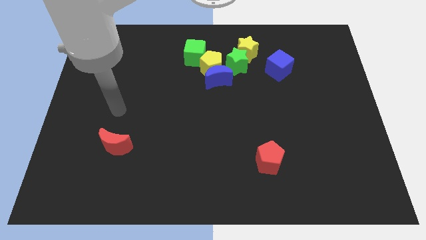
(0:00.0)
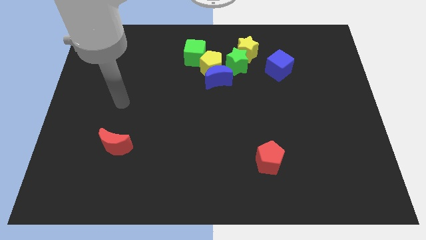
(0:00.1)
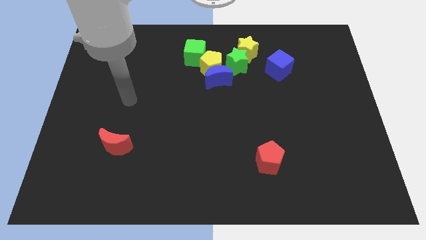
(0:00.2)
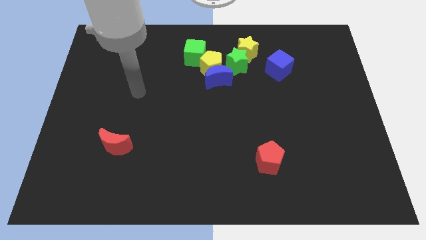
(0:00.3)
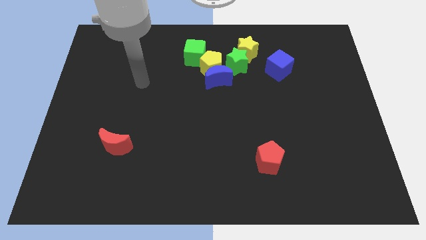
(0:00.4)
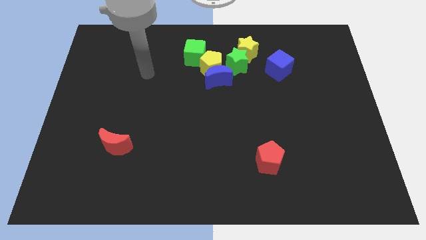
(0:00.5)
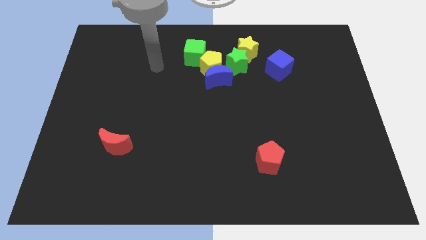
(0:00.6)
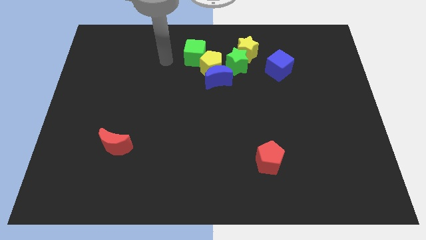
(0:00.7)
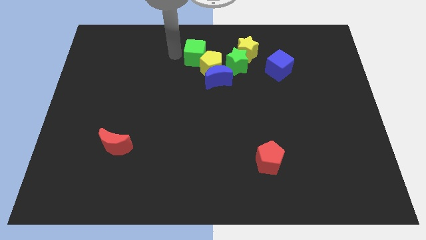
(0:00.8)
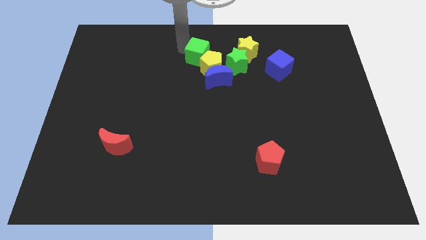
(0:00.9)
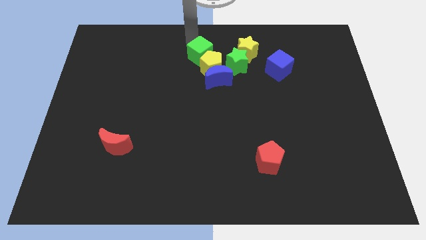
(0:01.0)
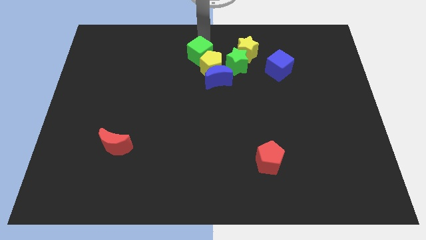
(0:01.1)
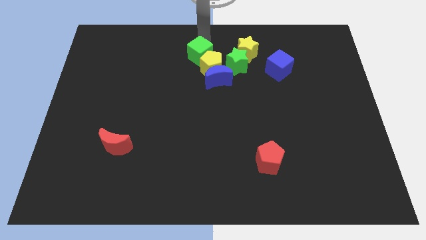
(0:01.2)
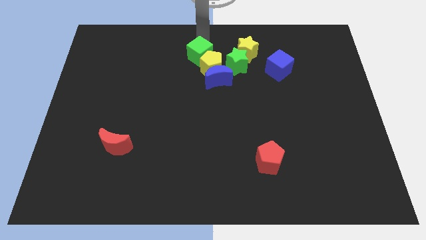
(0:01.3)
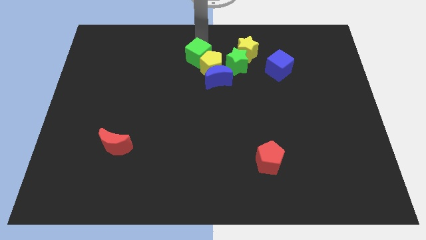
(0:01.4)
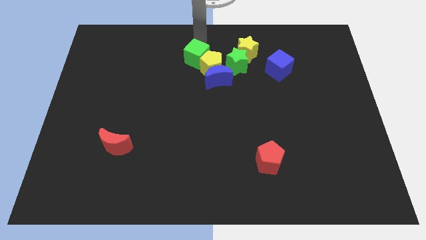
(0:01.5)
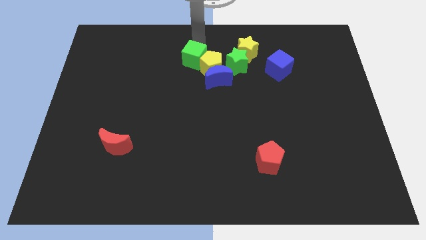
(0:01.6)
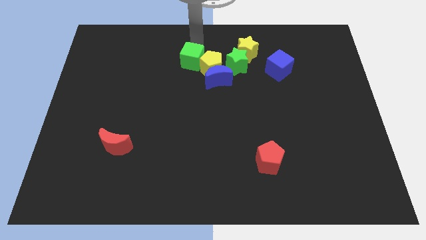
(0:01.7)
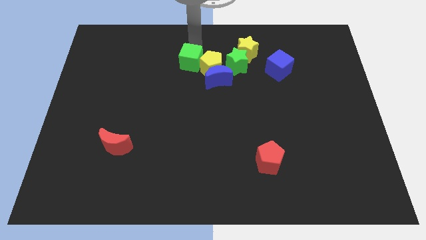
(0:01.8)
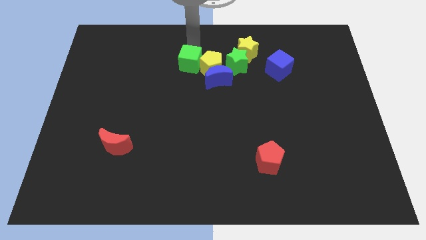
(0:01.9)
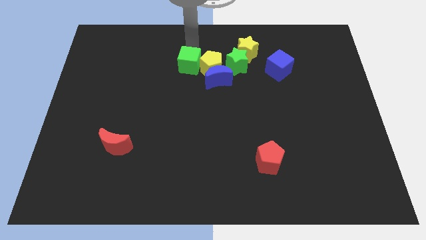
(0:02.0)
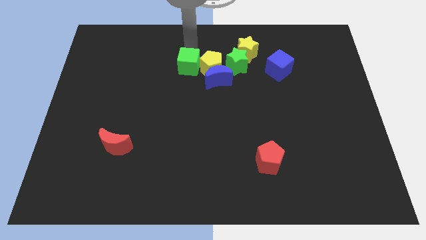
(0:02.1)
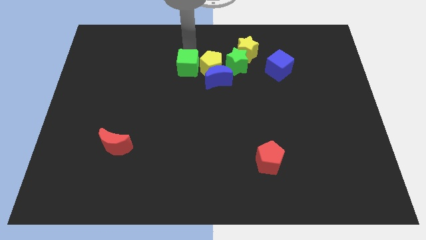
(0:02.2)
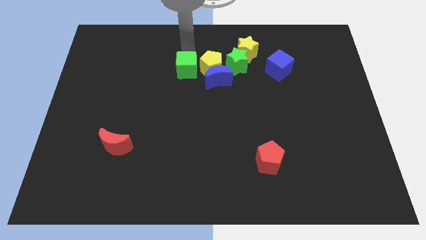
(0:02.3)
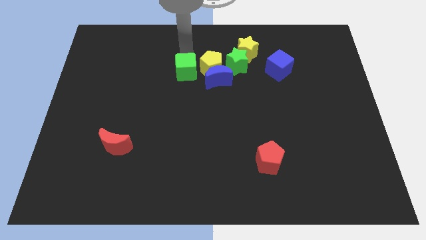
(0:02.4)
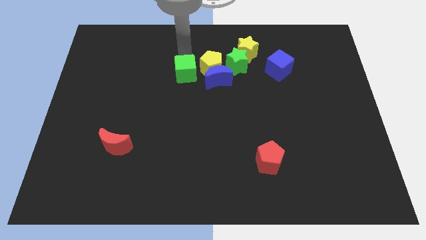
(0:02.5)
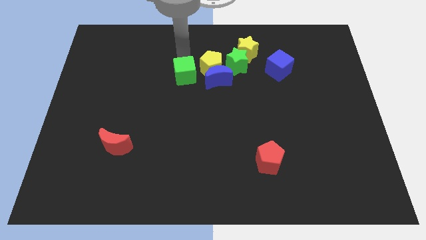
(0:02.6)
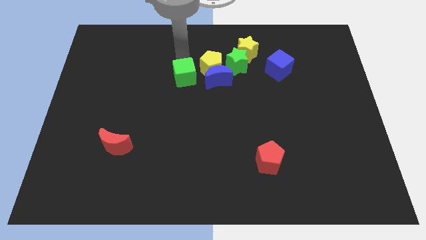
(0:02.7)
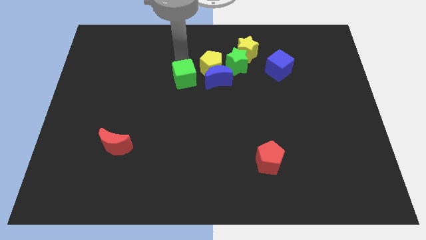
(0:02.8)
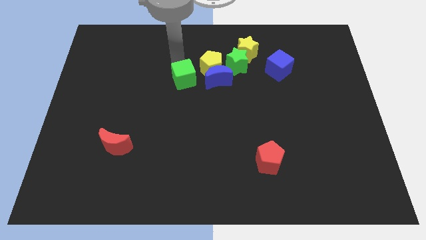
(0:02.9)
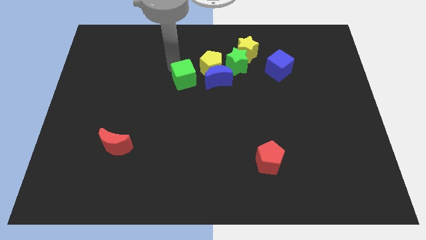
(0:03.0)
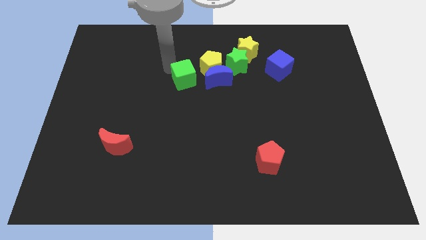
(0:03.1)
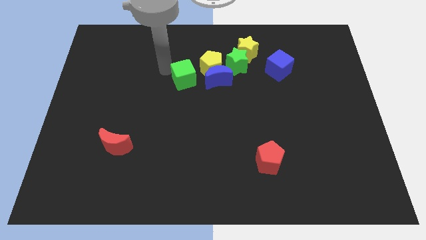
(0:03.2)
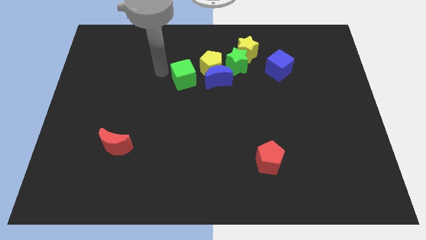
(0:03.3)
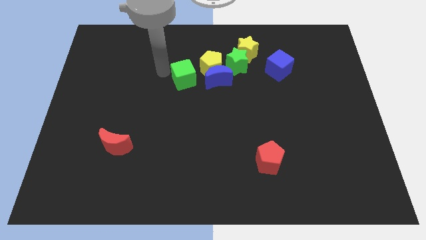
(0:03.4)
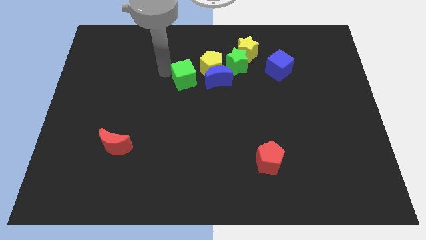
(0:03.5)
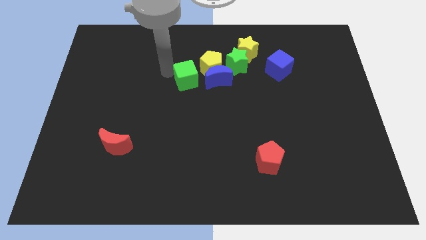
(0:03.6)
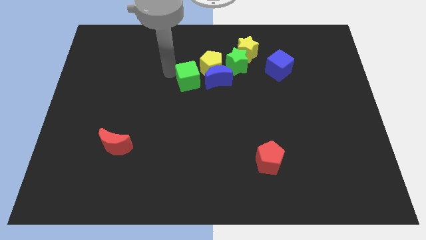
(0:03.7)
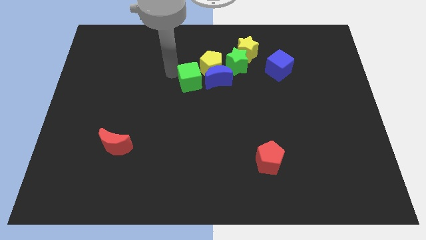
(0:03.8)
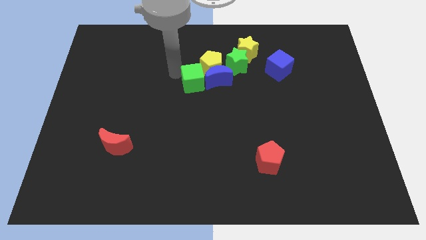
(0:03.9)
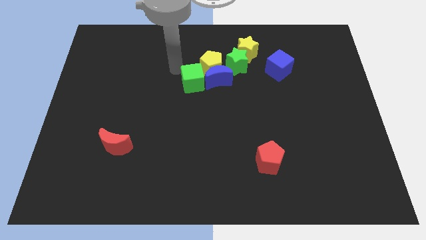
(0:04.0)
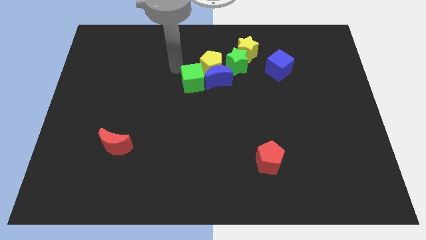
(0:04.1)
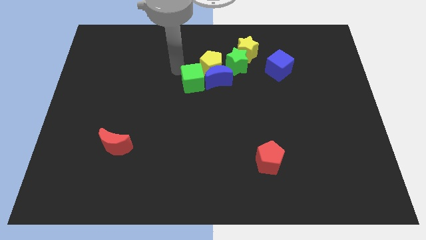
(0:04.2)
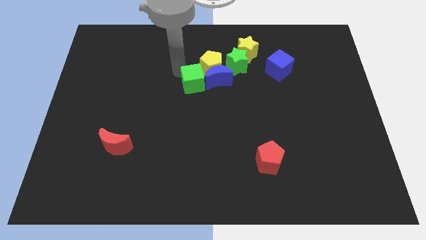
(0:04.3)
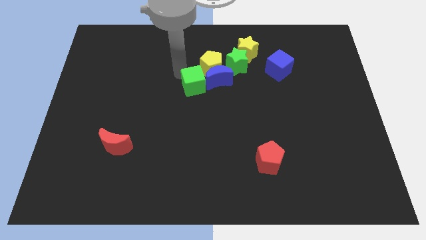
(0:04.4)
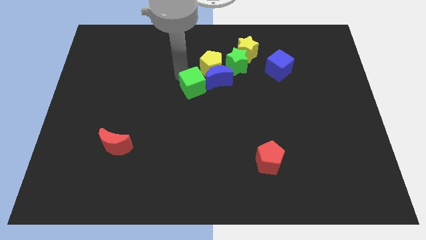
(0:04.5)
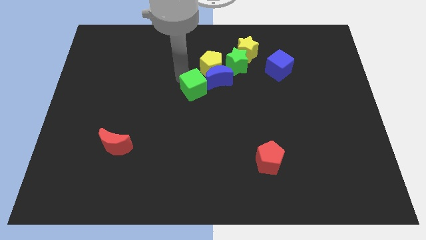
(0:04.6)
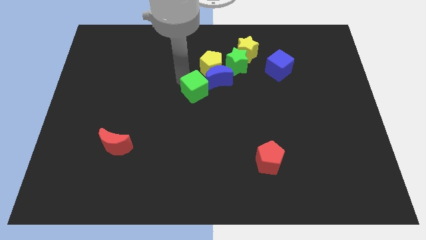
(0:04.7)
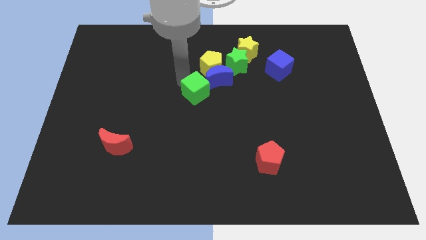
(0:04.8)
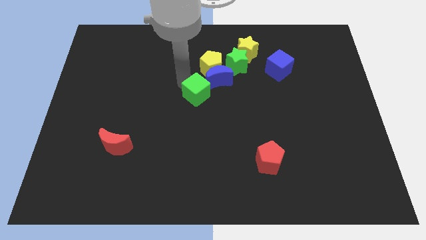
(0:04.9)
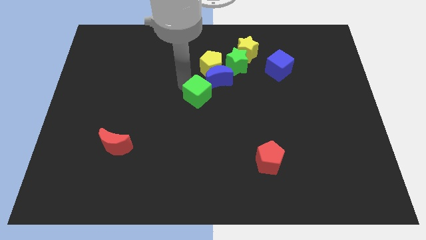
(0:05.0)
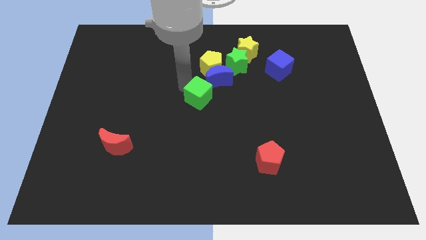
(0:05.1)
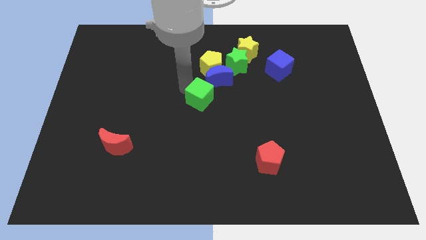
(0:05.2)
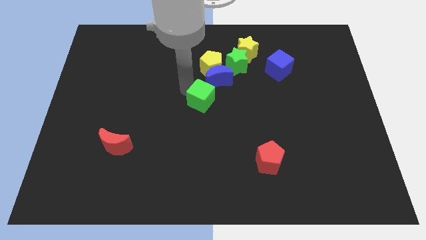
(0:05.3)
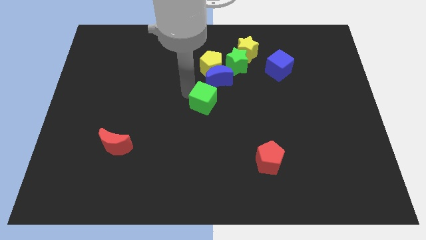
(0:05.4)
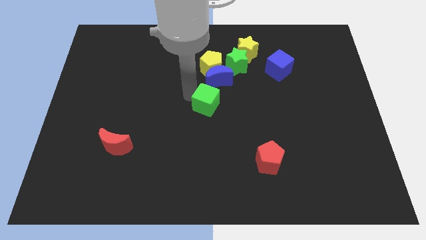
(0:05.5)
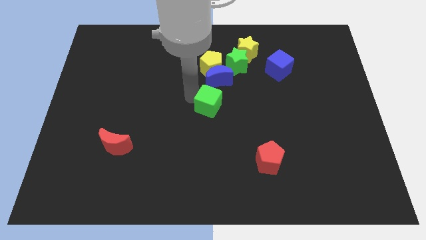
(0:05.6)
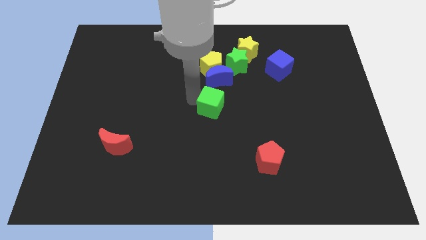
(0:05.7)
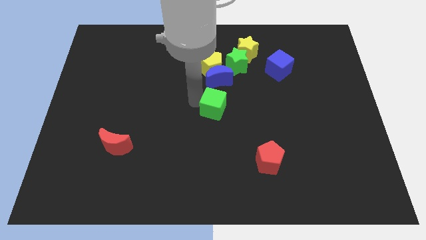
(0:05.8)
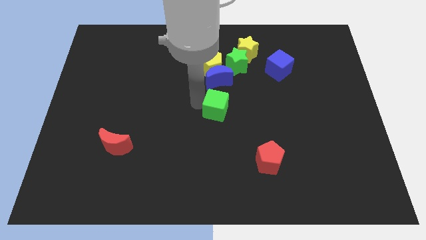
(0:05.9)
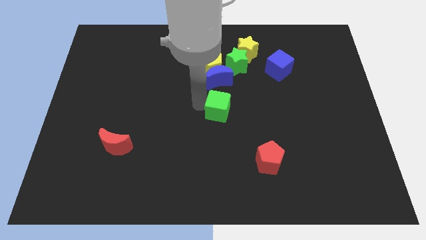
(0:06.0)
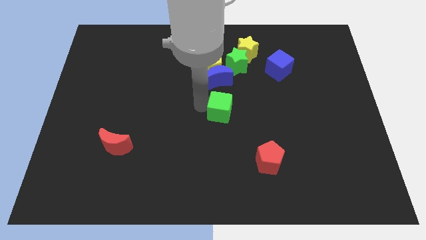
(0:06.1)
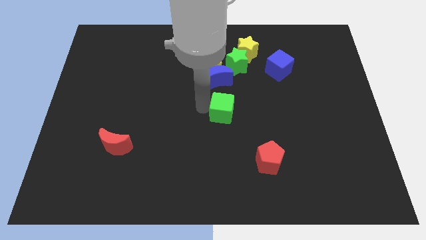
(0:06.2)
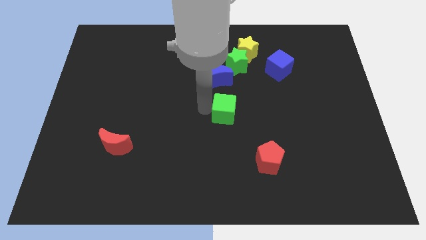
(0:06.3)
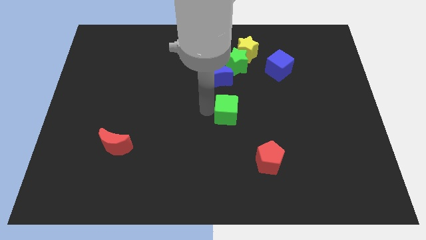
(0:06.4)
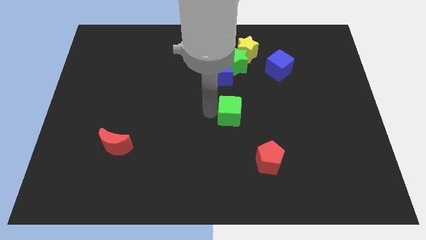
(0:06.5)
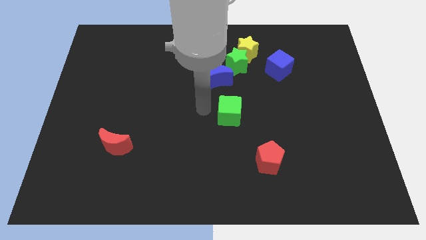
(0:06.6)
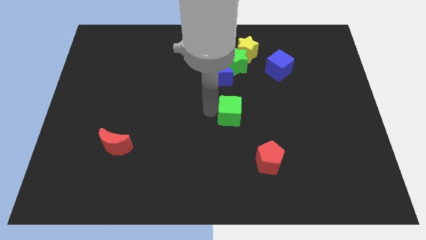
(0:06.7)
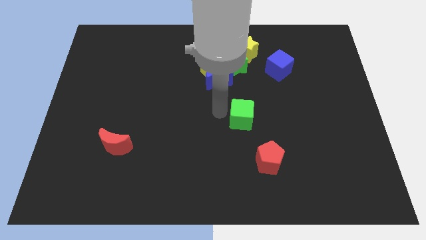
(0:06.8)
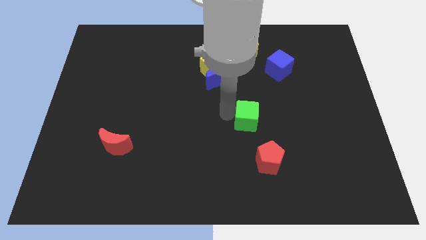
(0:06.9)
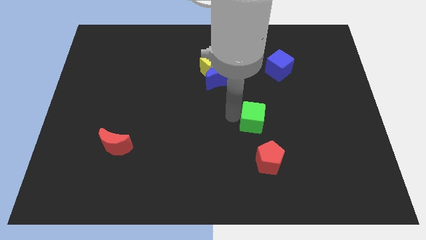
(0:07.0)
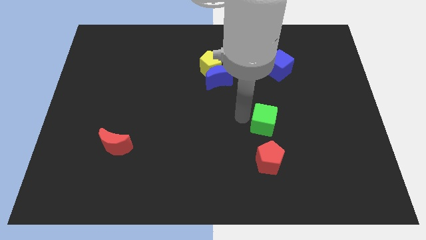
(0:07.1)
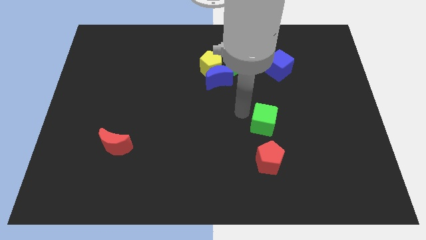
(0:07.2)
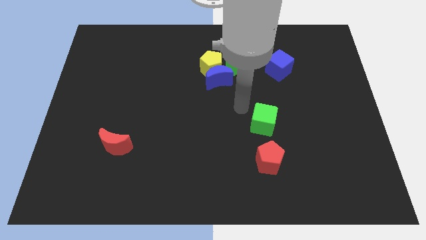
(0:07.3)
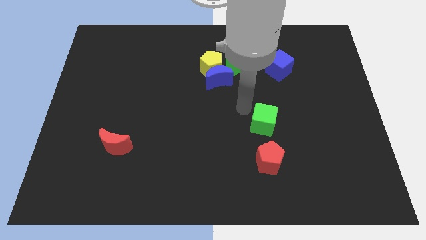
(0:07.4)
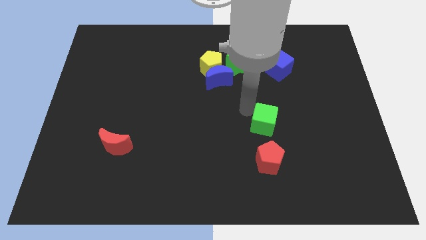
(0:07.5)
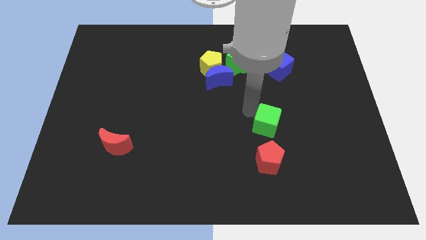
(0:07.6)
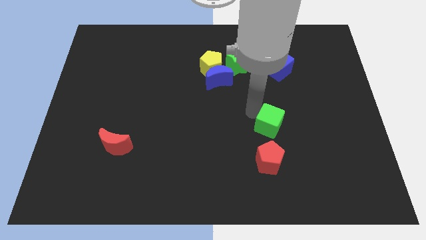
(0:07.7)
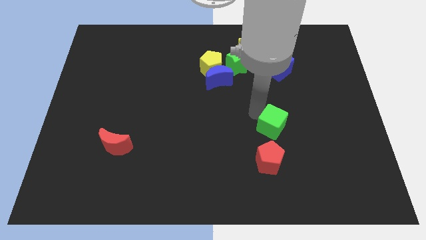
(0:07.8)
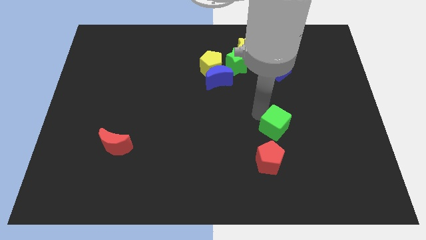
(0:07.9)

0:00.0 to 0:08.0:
slide the green cube to the top right side of the red pentagon
